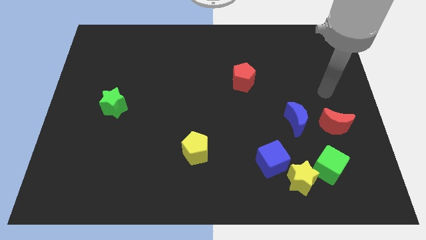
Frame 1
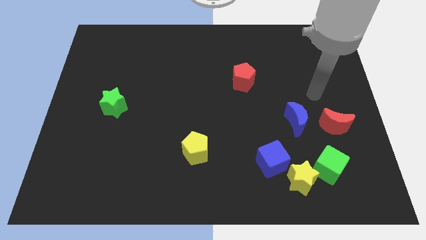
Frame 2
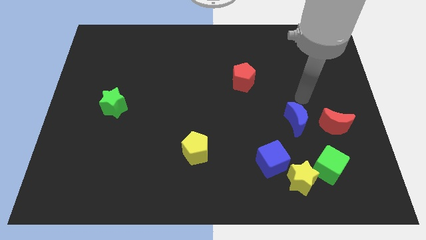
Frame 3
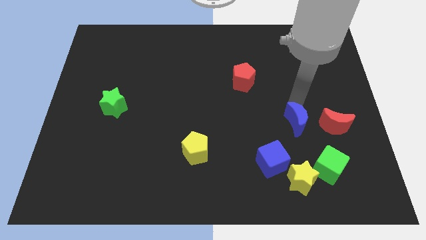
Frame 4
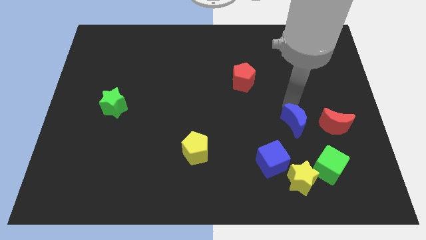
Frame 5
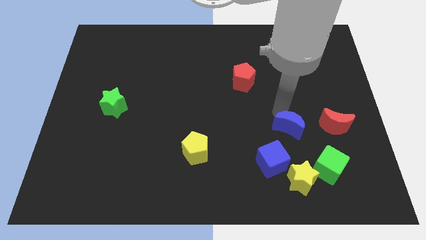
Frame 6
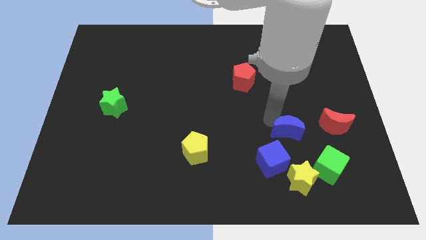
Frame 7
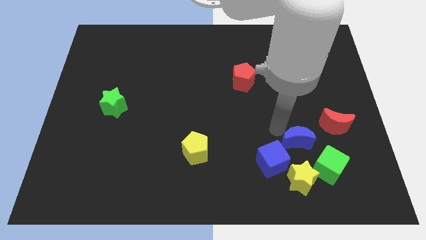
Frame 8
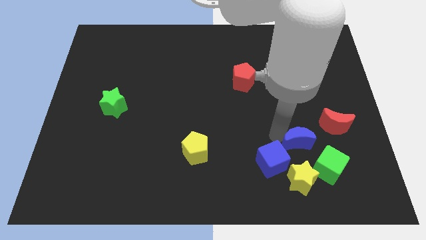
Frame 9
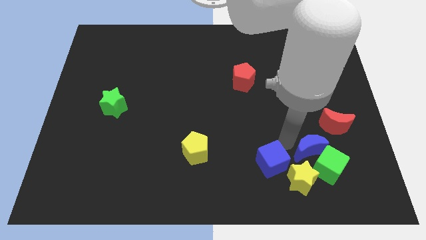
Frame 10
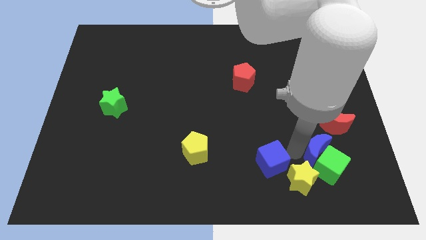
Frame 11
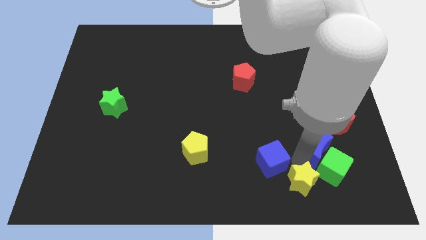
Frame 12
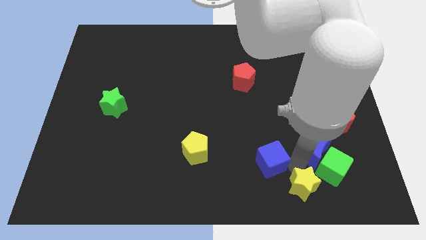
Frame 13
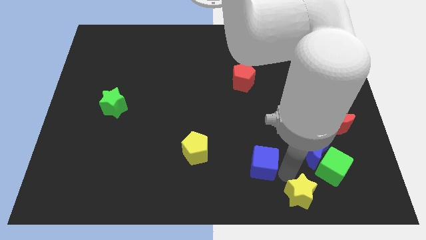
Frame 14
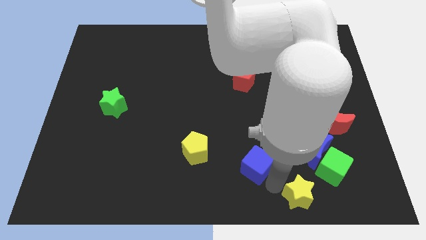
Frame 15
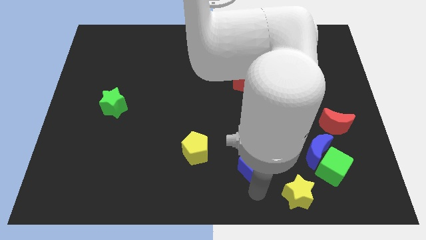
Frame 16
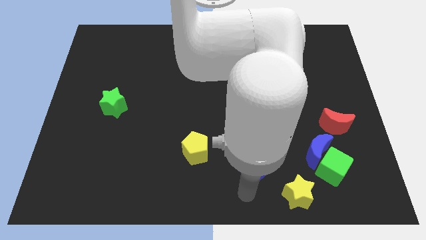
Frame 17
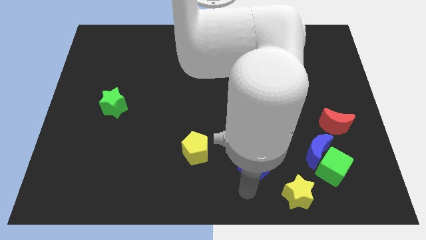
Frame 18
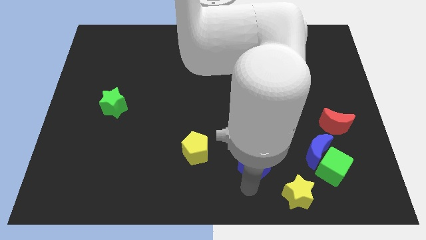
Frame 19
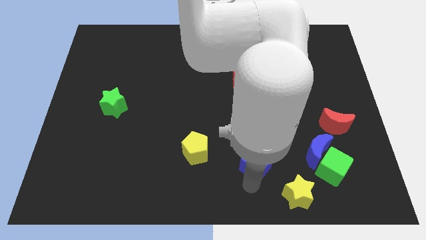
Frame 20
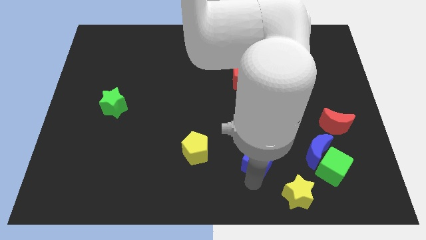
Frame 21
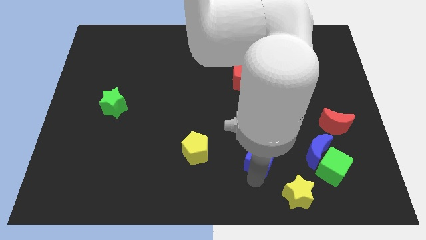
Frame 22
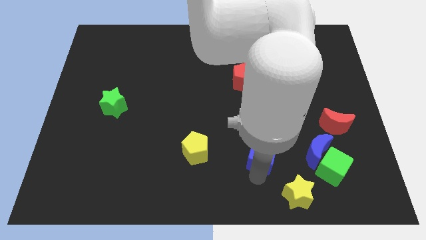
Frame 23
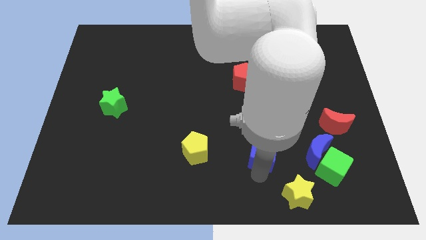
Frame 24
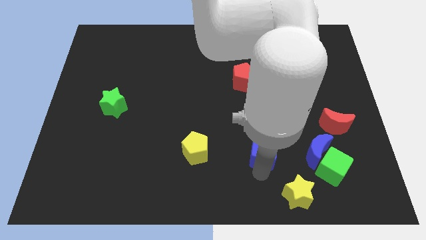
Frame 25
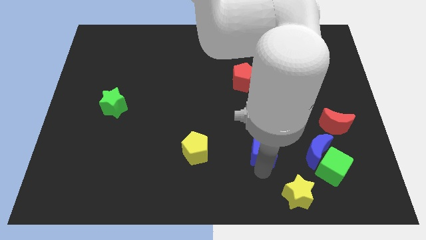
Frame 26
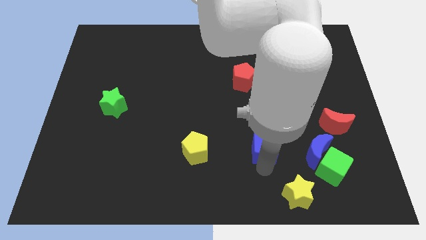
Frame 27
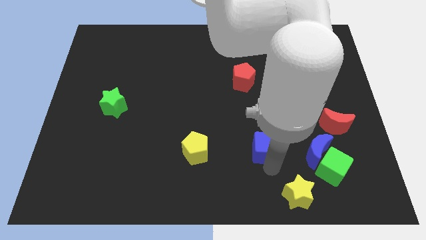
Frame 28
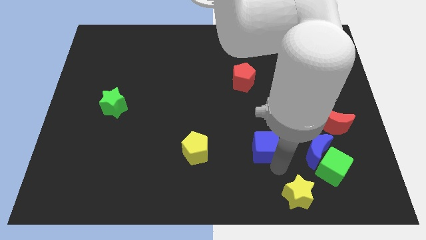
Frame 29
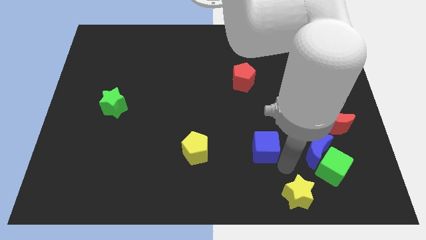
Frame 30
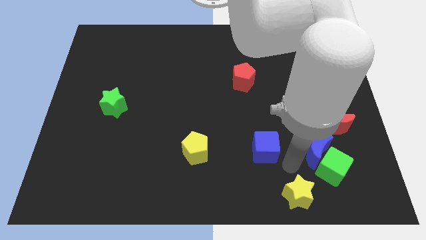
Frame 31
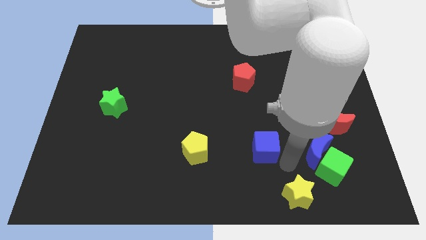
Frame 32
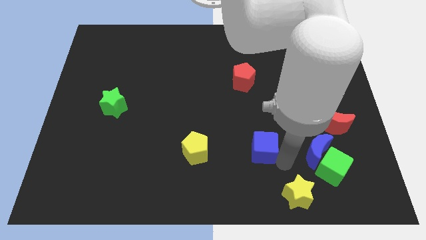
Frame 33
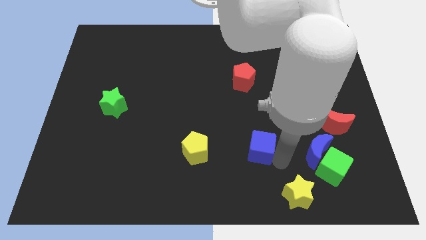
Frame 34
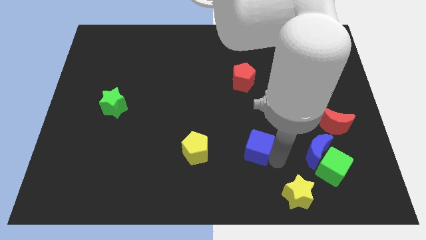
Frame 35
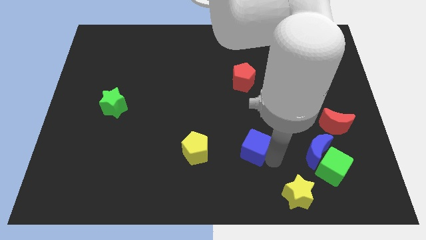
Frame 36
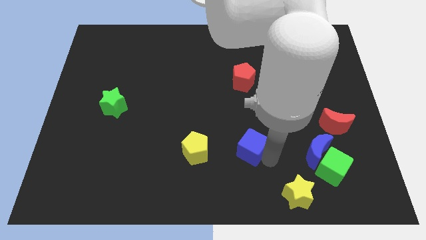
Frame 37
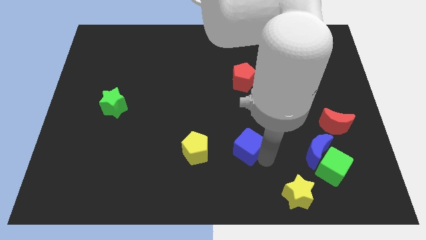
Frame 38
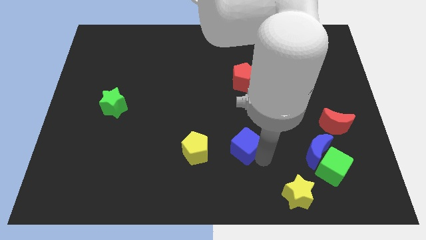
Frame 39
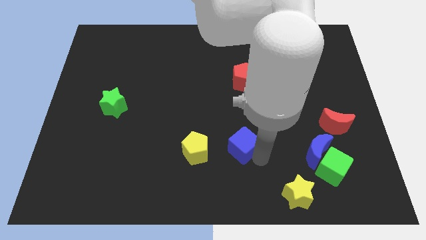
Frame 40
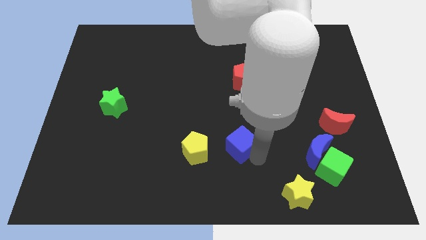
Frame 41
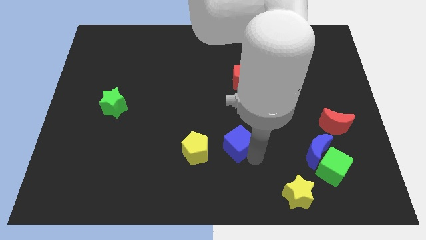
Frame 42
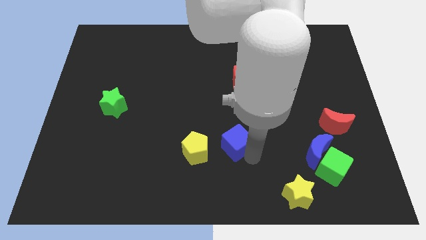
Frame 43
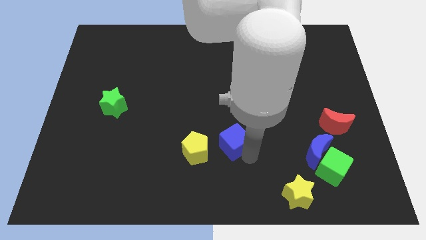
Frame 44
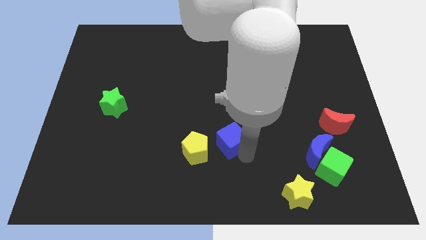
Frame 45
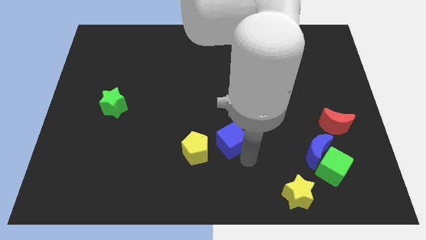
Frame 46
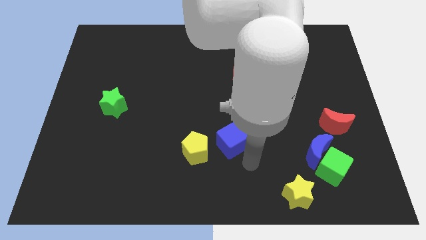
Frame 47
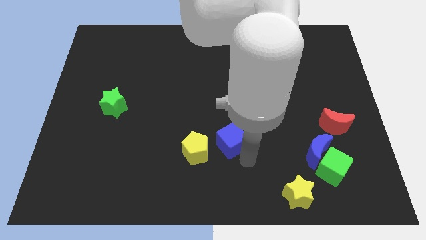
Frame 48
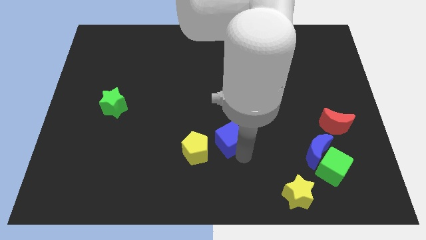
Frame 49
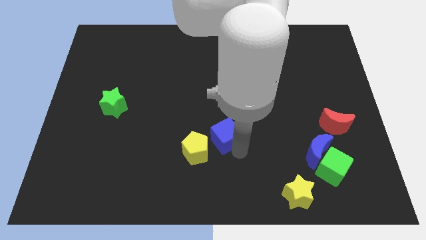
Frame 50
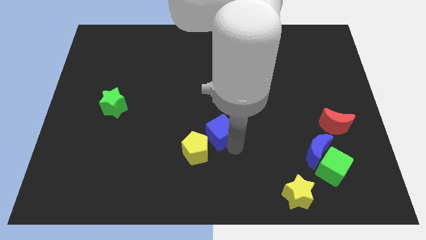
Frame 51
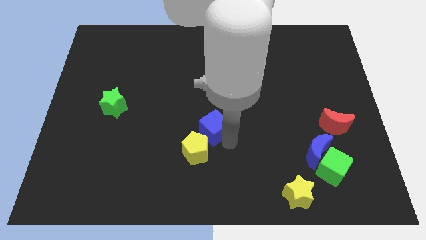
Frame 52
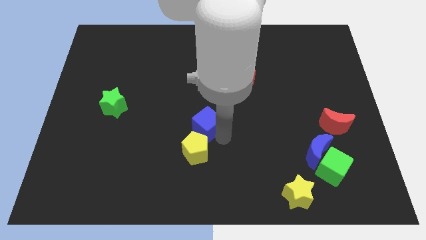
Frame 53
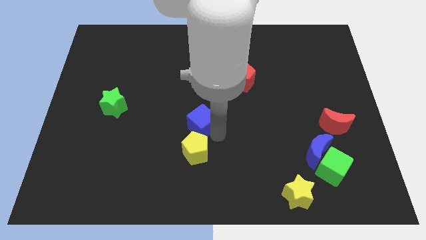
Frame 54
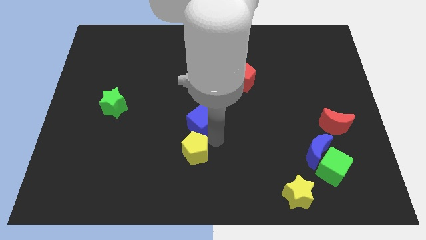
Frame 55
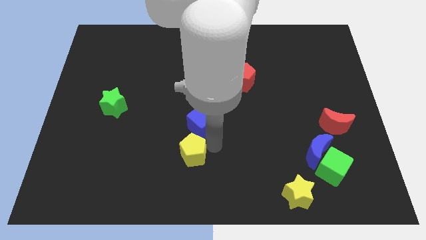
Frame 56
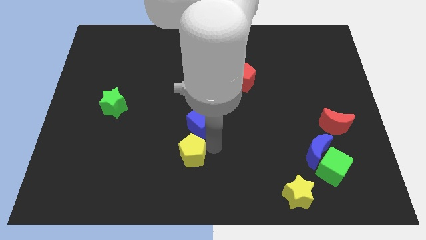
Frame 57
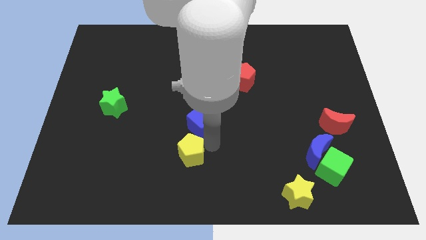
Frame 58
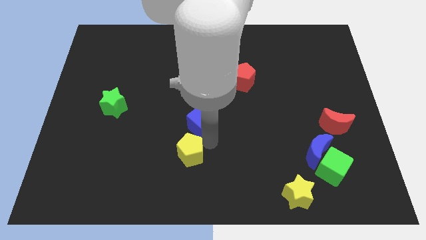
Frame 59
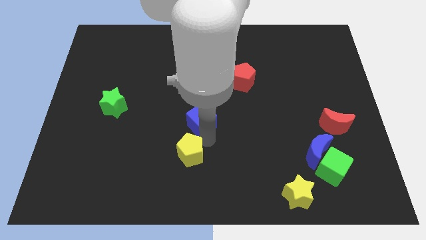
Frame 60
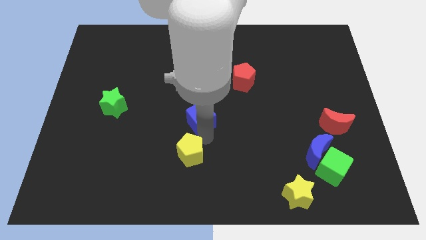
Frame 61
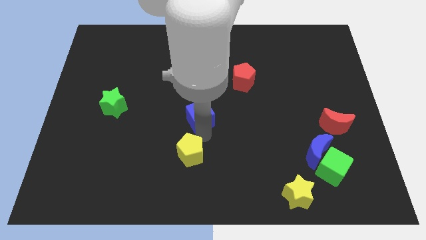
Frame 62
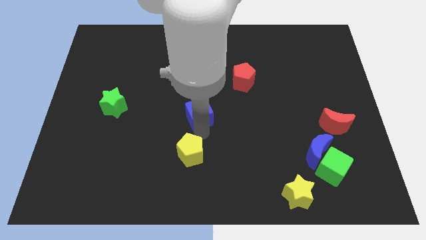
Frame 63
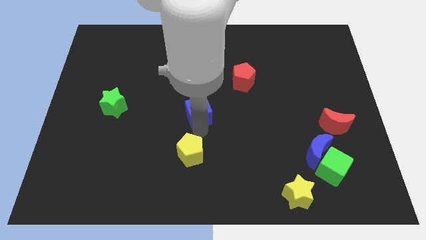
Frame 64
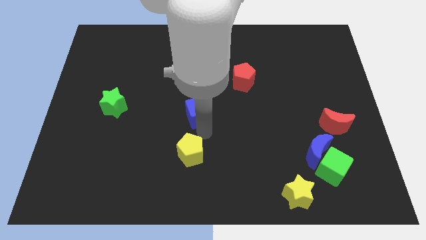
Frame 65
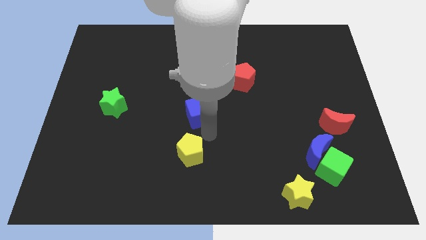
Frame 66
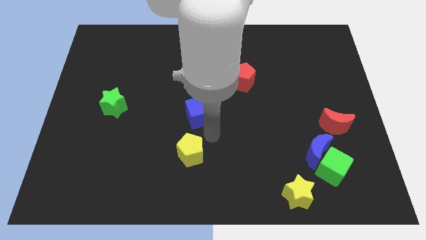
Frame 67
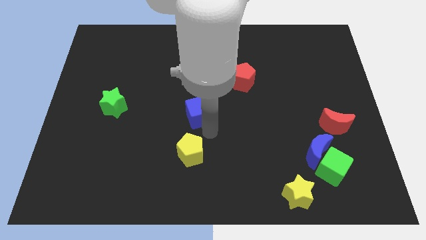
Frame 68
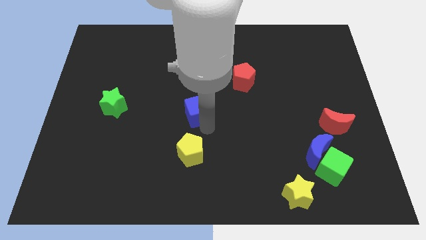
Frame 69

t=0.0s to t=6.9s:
move the blue cube diagonally up and to the left

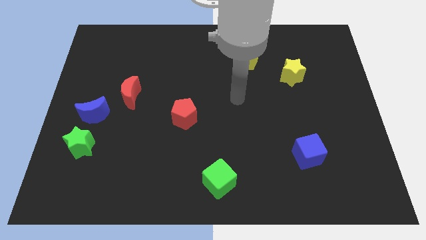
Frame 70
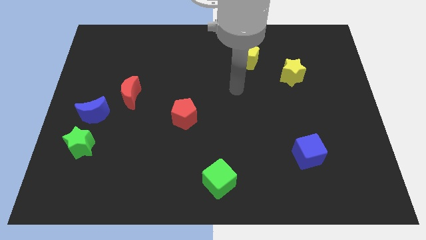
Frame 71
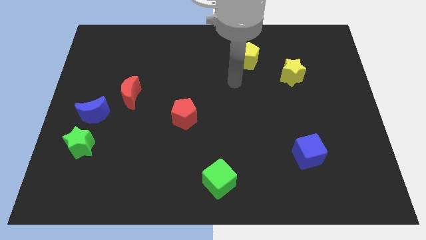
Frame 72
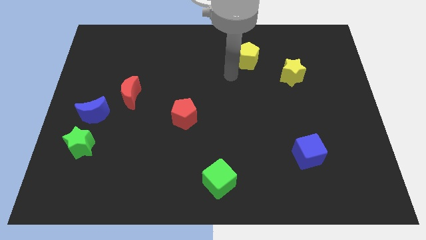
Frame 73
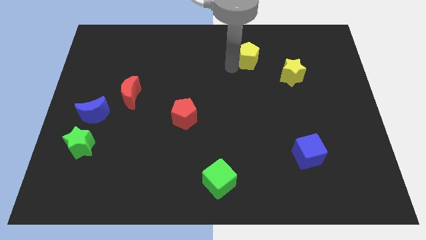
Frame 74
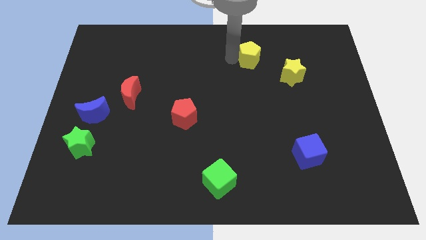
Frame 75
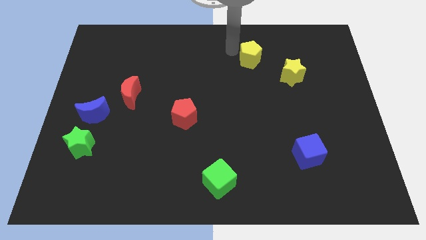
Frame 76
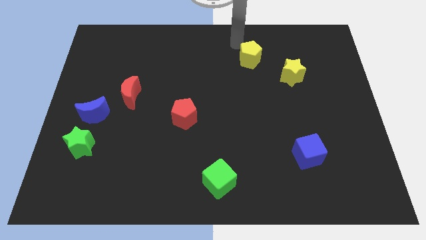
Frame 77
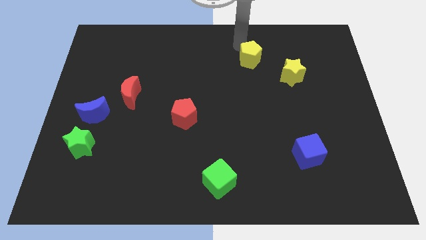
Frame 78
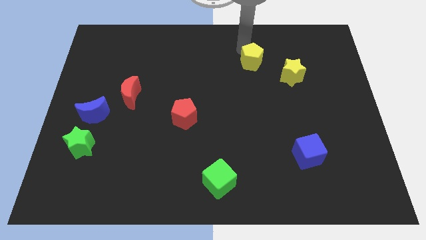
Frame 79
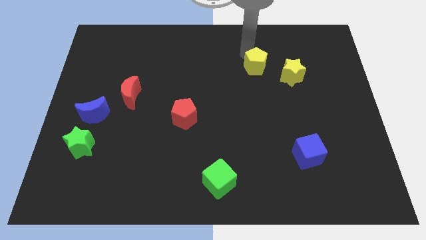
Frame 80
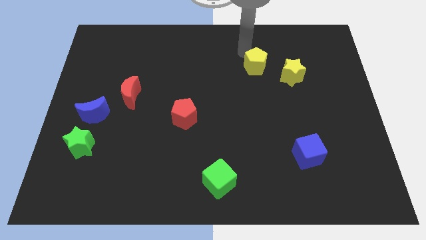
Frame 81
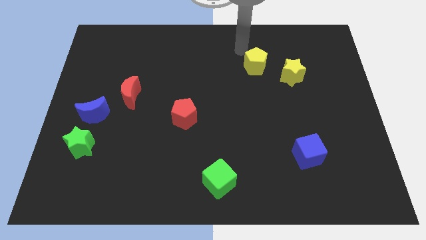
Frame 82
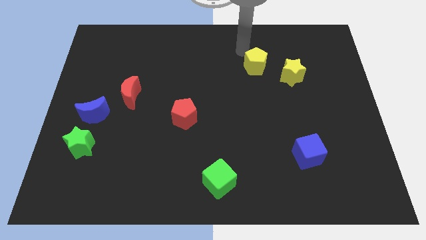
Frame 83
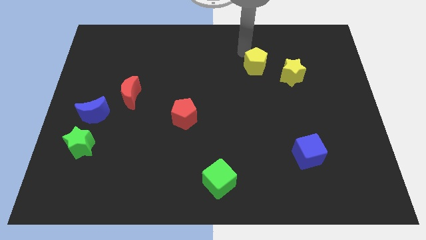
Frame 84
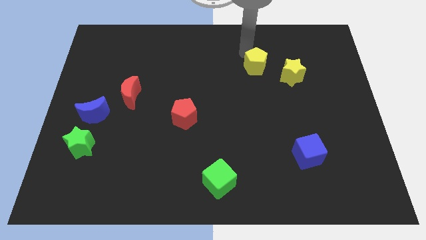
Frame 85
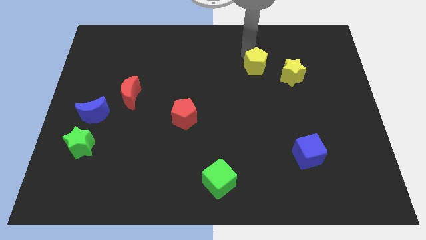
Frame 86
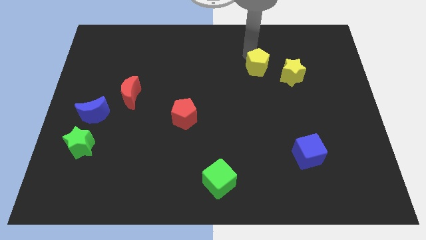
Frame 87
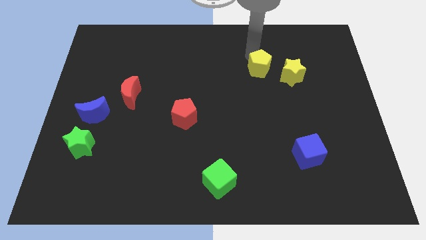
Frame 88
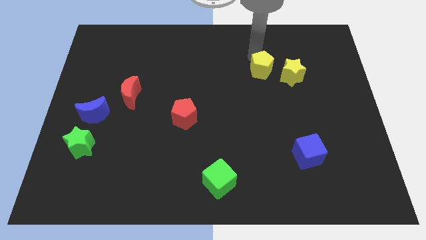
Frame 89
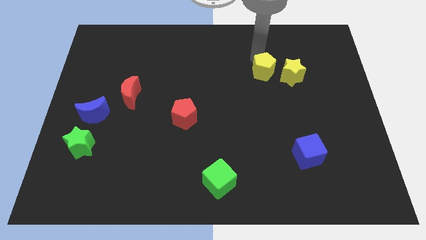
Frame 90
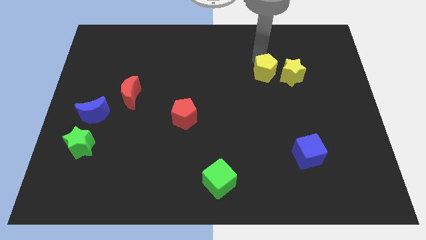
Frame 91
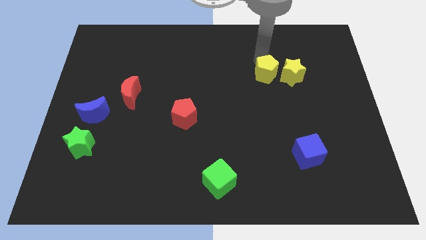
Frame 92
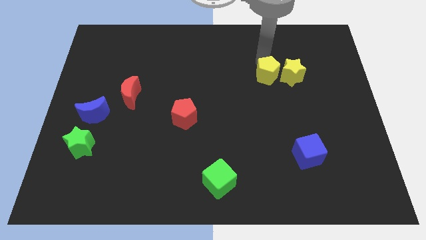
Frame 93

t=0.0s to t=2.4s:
move the yellow pentagon down and right somewhat
